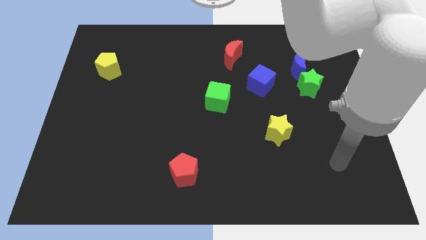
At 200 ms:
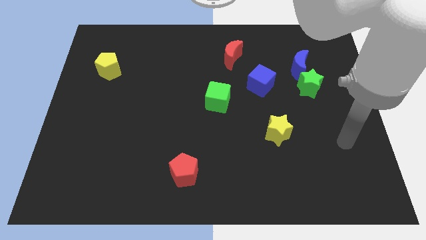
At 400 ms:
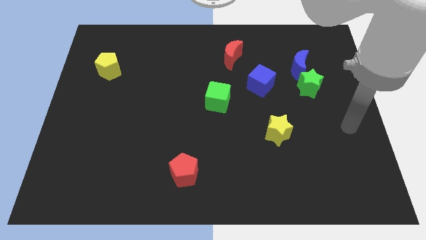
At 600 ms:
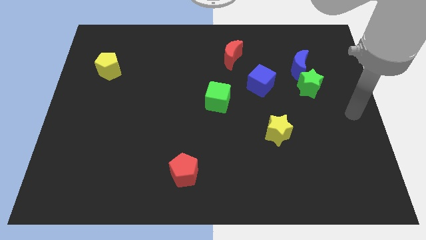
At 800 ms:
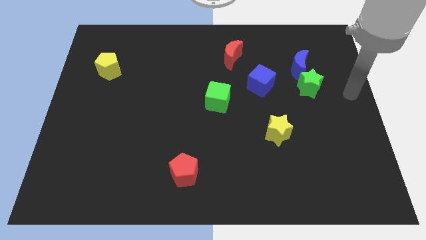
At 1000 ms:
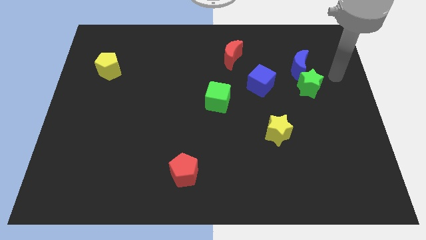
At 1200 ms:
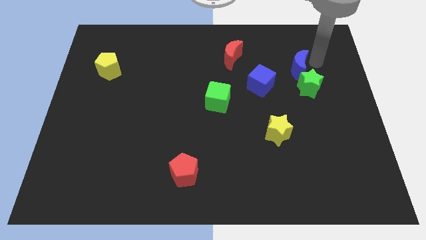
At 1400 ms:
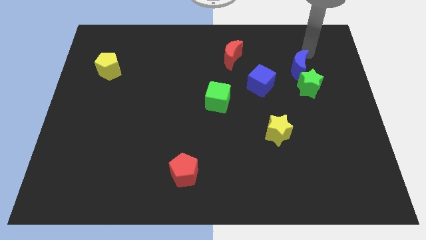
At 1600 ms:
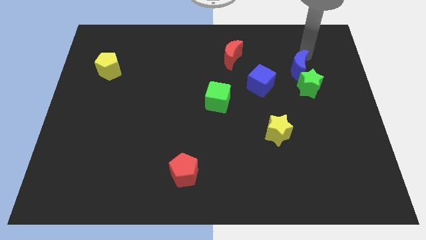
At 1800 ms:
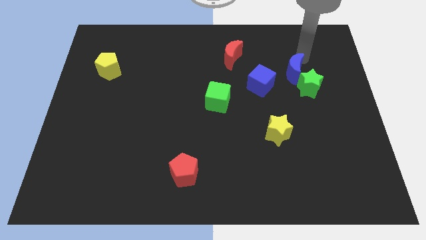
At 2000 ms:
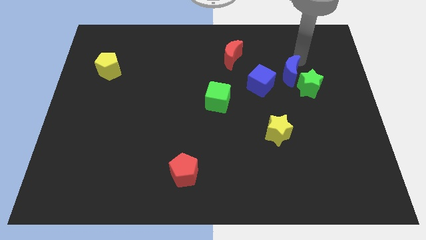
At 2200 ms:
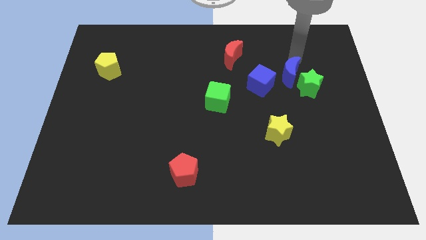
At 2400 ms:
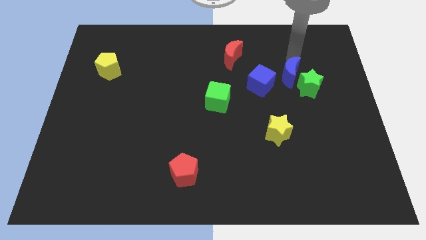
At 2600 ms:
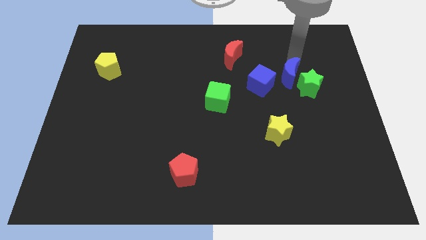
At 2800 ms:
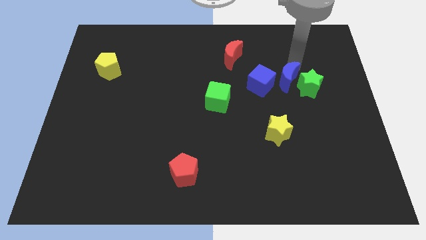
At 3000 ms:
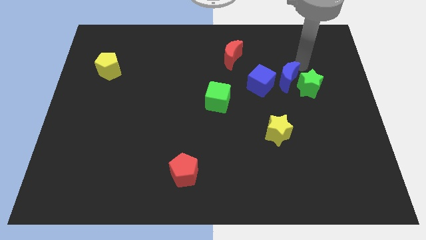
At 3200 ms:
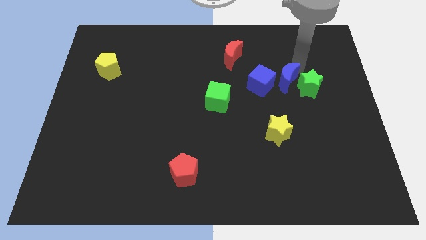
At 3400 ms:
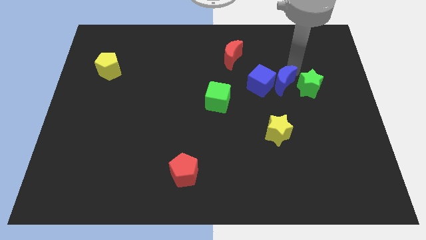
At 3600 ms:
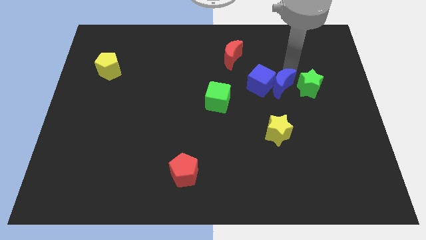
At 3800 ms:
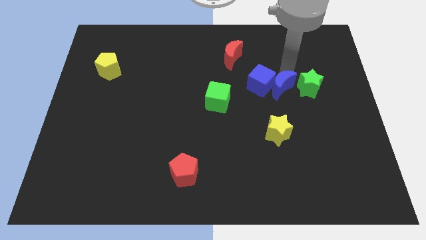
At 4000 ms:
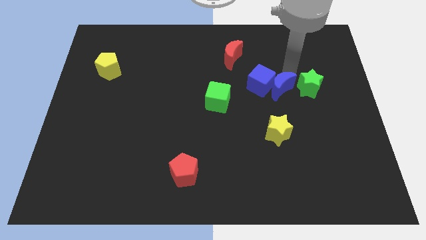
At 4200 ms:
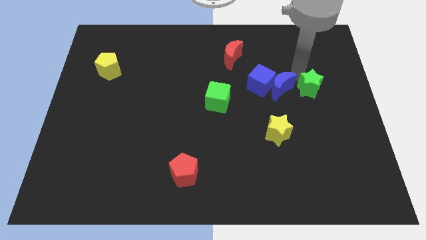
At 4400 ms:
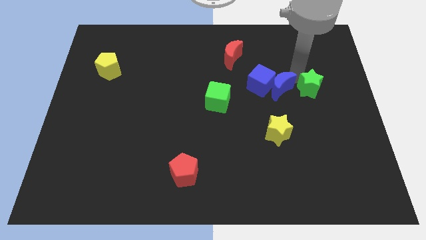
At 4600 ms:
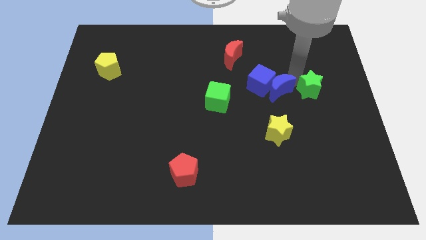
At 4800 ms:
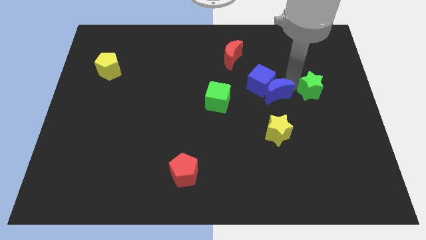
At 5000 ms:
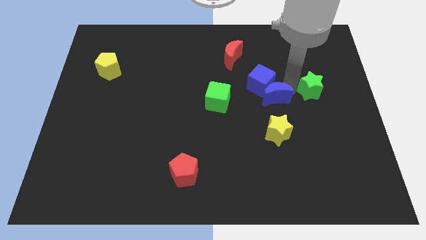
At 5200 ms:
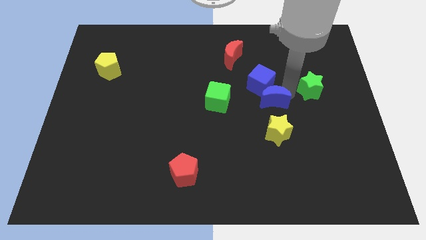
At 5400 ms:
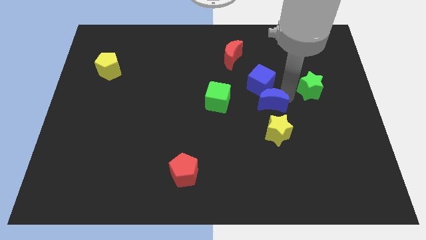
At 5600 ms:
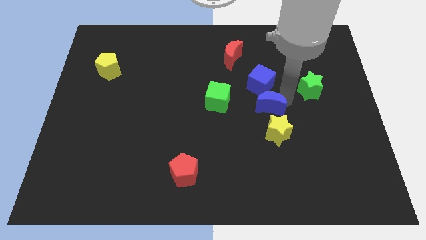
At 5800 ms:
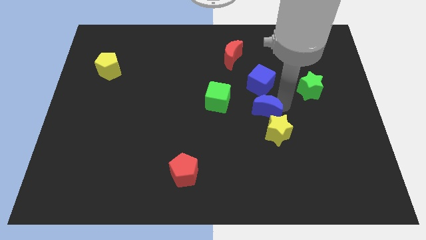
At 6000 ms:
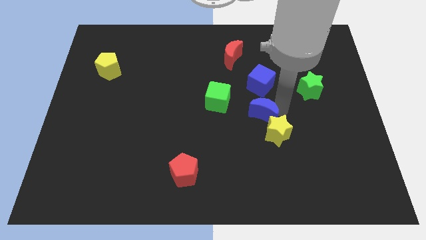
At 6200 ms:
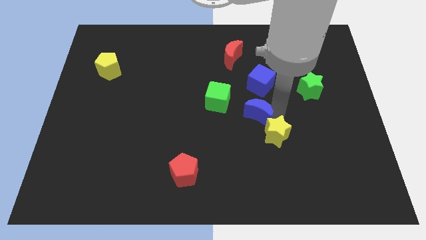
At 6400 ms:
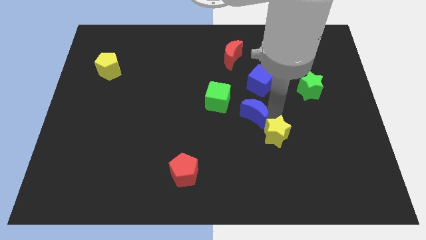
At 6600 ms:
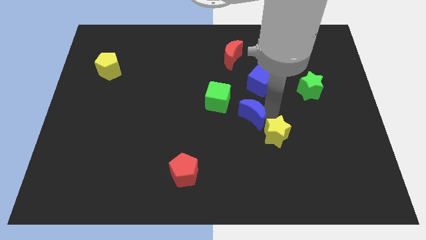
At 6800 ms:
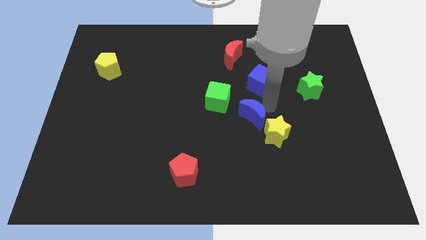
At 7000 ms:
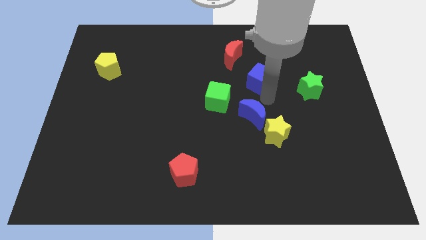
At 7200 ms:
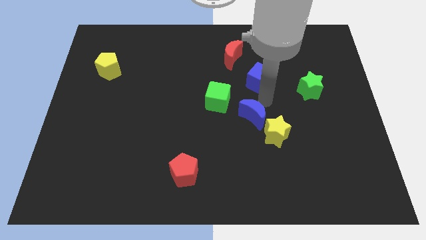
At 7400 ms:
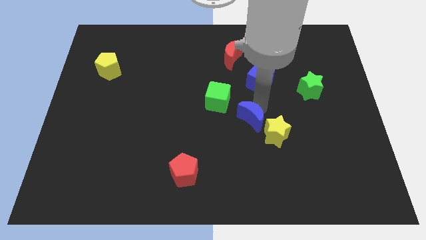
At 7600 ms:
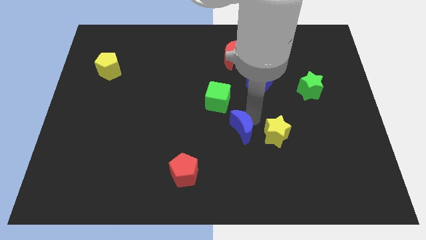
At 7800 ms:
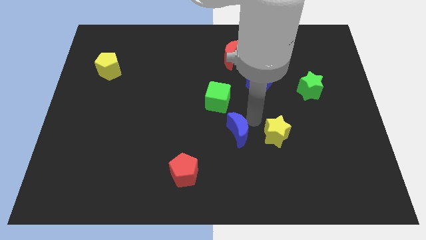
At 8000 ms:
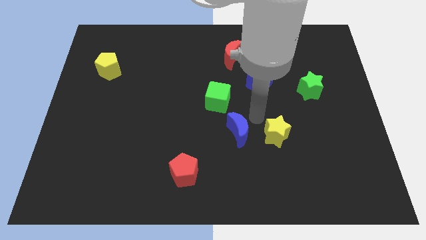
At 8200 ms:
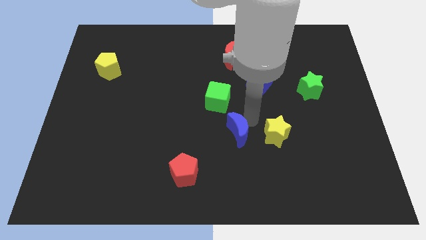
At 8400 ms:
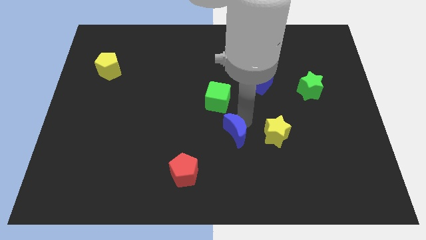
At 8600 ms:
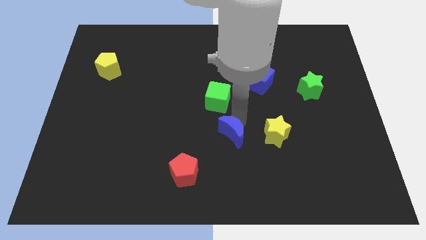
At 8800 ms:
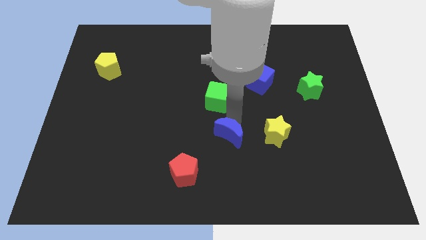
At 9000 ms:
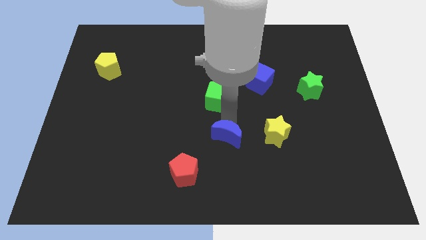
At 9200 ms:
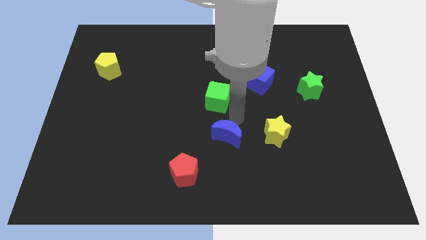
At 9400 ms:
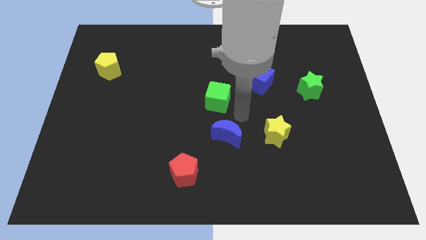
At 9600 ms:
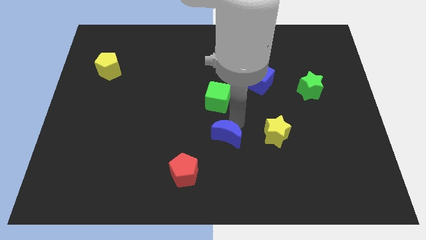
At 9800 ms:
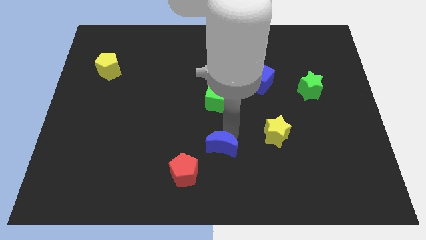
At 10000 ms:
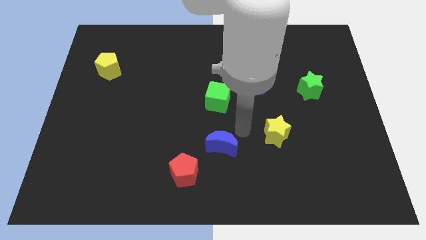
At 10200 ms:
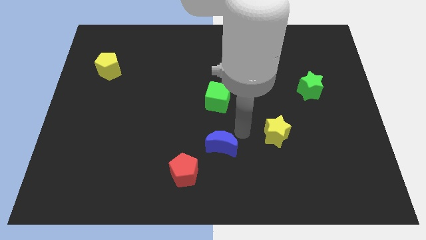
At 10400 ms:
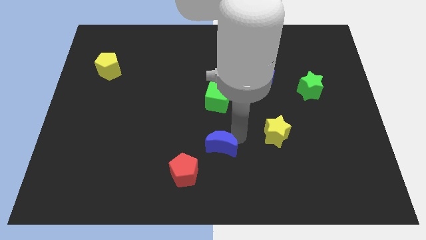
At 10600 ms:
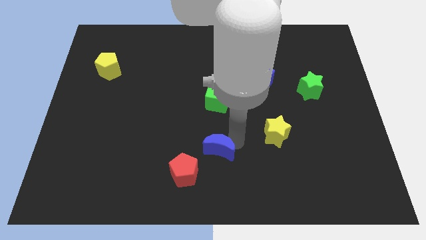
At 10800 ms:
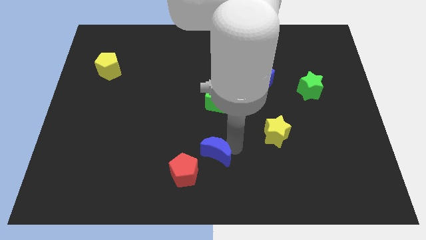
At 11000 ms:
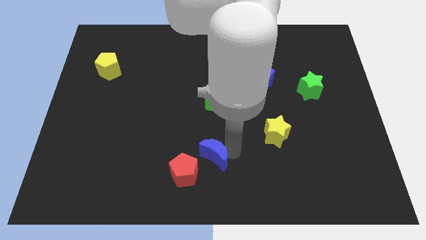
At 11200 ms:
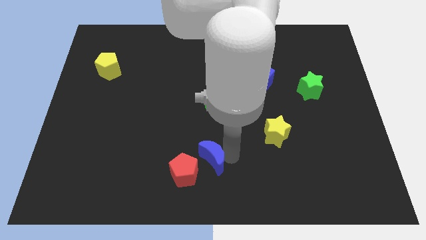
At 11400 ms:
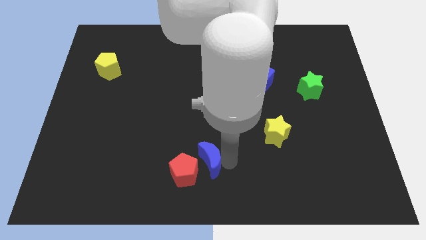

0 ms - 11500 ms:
move the blue moon next to the red pentagon

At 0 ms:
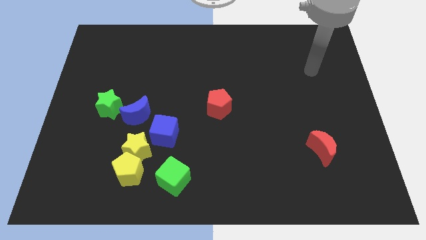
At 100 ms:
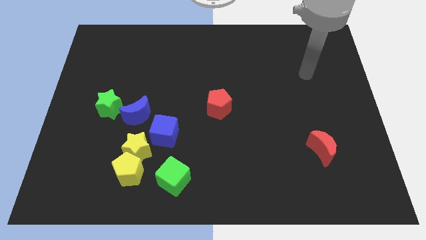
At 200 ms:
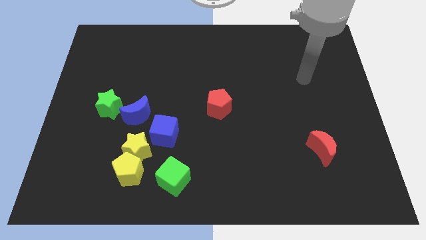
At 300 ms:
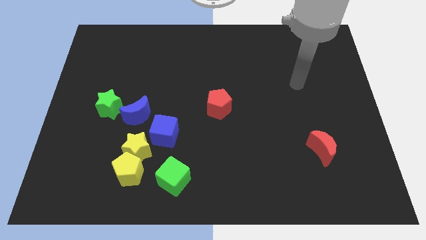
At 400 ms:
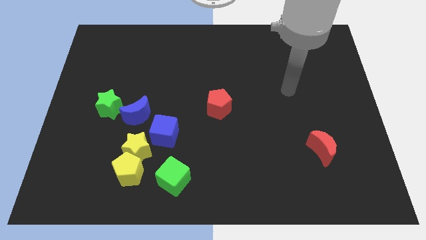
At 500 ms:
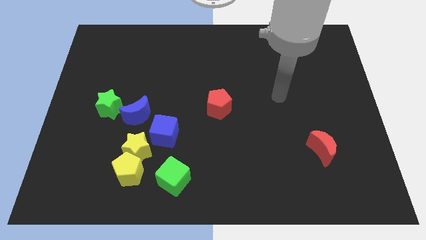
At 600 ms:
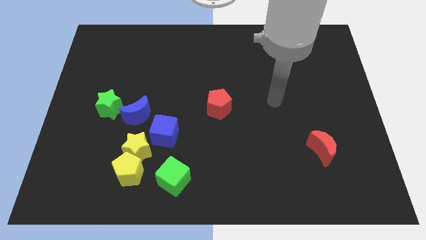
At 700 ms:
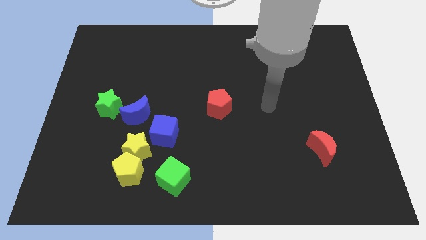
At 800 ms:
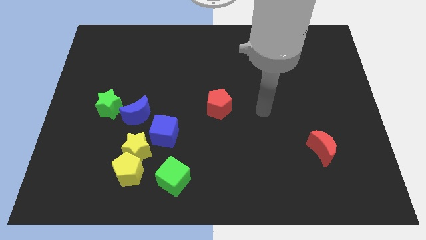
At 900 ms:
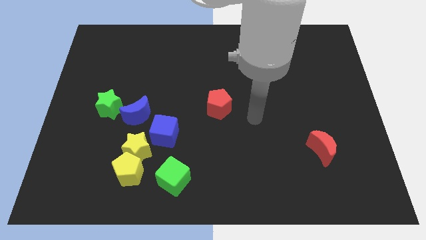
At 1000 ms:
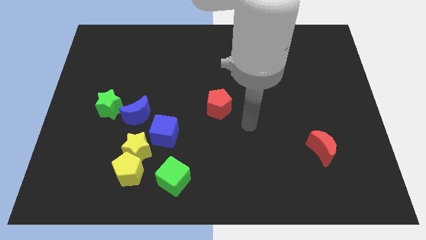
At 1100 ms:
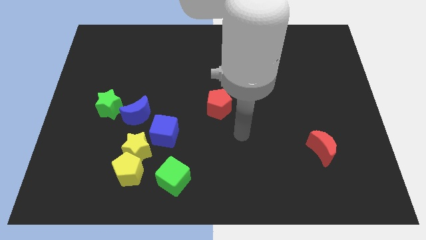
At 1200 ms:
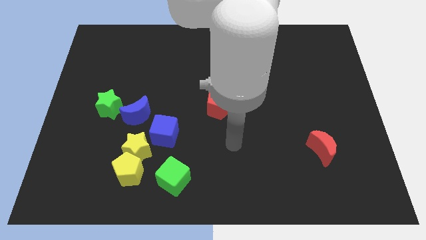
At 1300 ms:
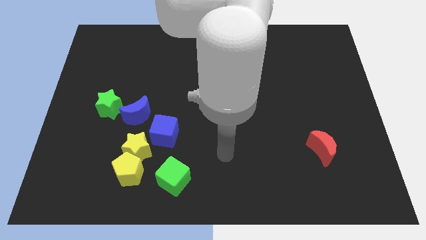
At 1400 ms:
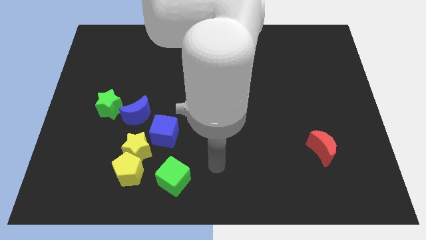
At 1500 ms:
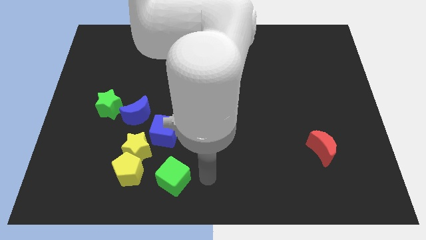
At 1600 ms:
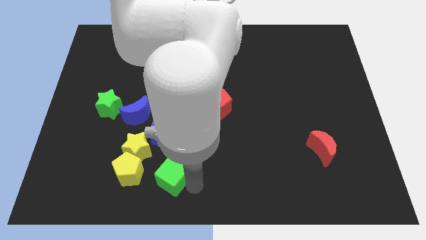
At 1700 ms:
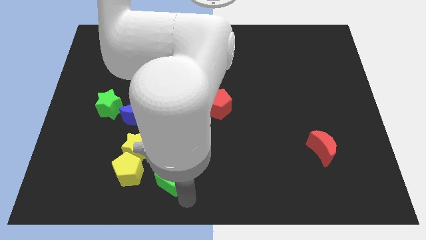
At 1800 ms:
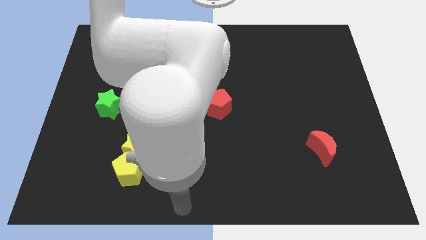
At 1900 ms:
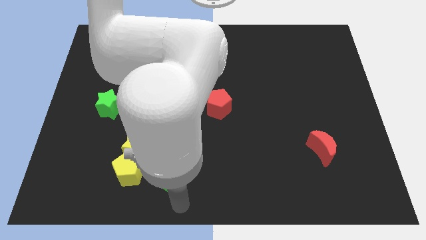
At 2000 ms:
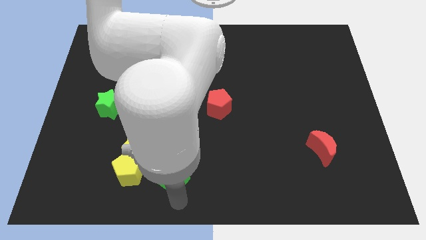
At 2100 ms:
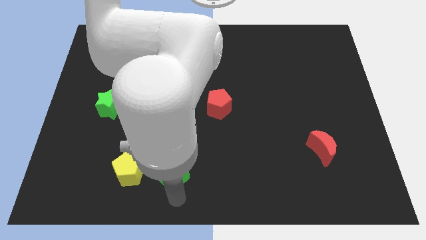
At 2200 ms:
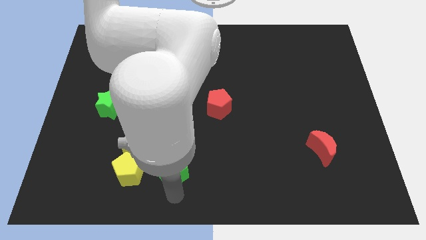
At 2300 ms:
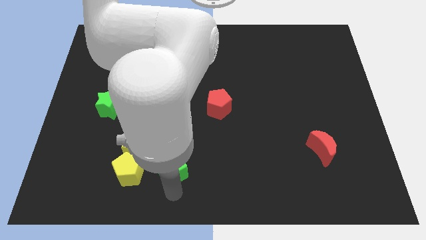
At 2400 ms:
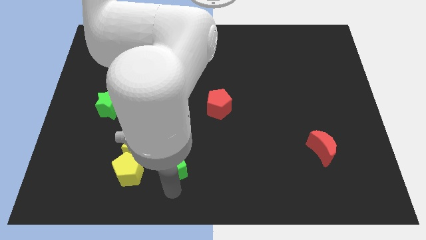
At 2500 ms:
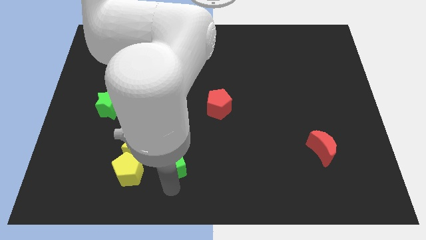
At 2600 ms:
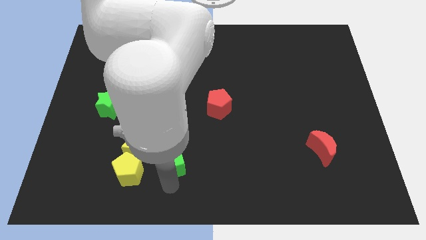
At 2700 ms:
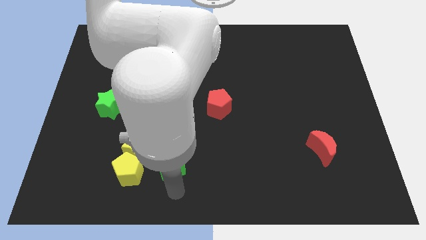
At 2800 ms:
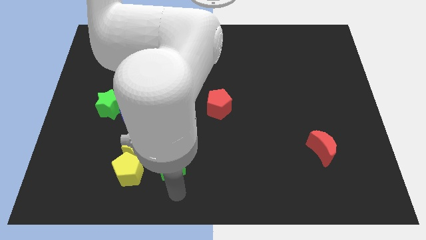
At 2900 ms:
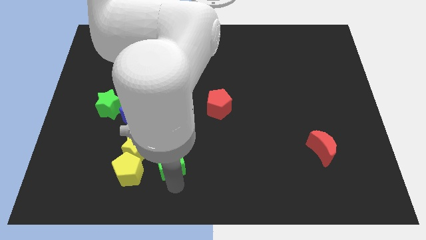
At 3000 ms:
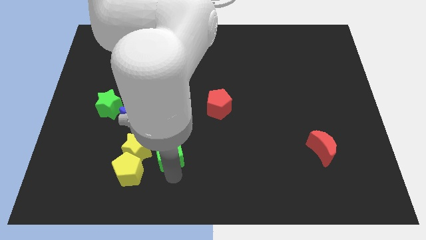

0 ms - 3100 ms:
push the green cube next to the blue cube
